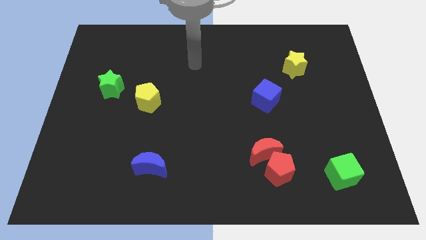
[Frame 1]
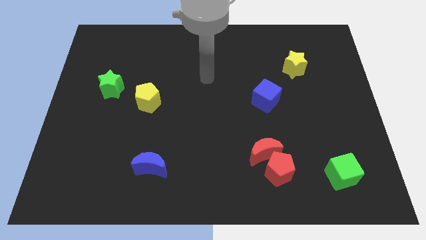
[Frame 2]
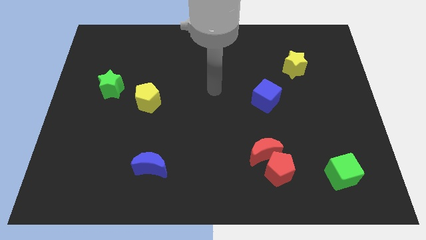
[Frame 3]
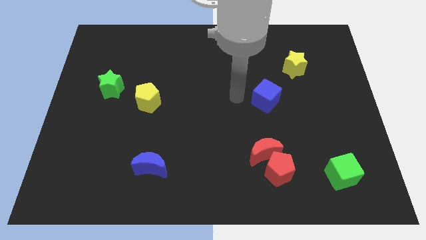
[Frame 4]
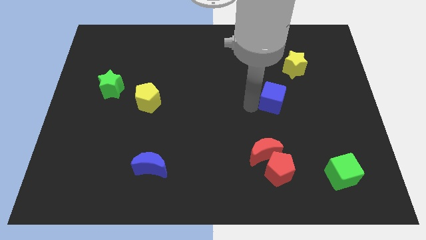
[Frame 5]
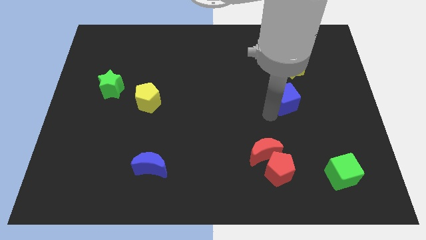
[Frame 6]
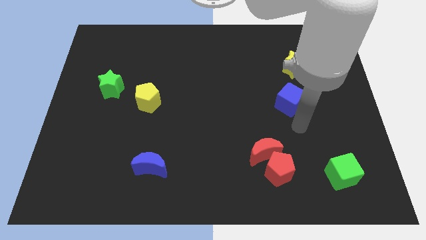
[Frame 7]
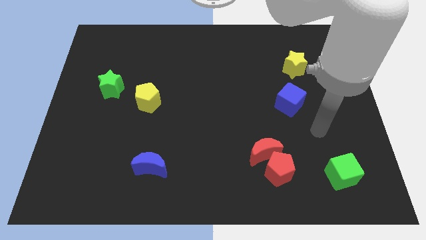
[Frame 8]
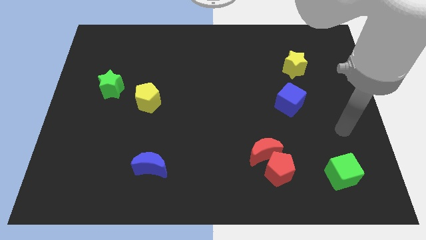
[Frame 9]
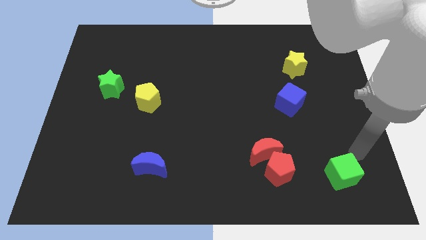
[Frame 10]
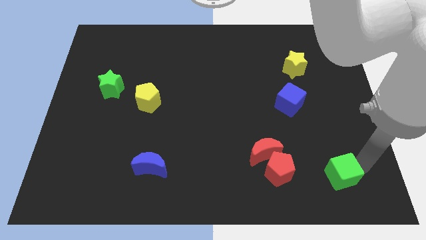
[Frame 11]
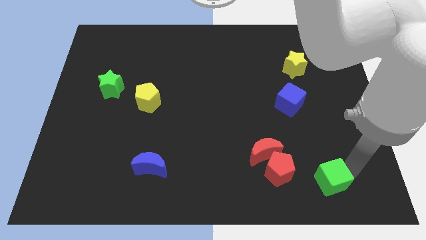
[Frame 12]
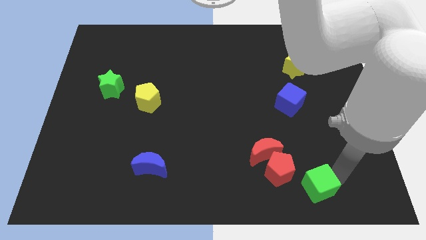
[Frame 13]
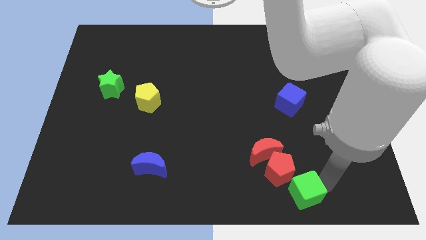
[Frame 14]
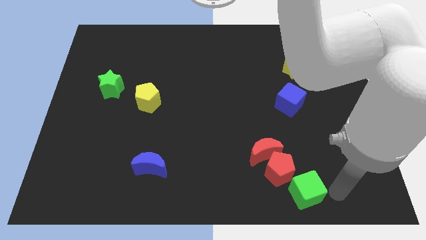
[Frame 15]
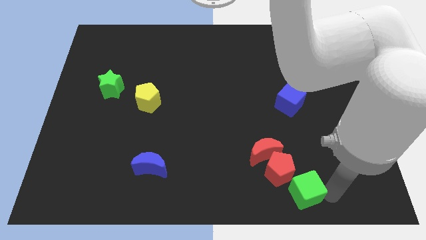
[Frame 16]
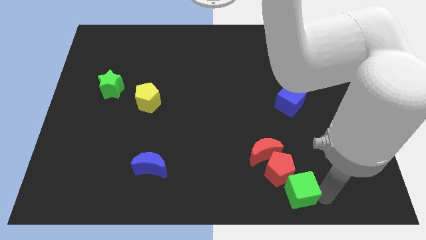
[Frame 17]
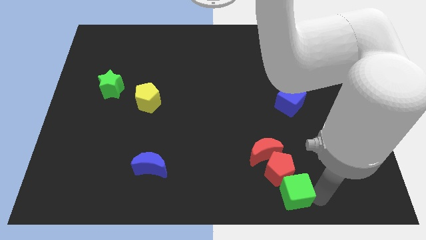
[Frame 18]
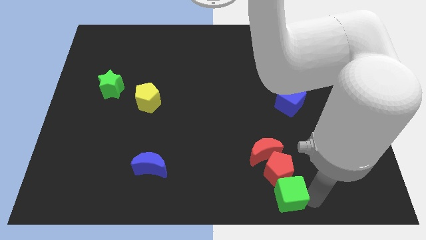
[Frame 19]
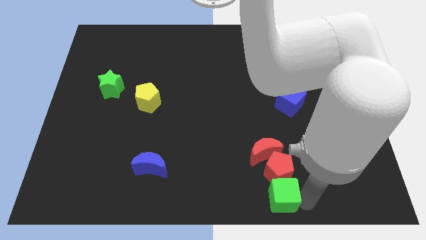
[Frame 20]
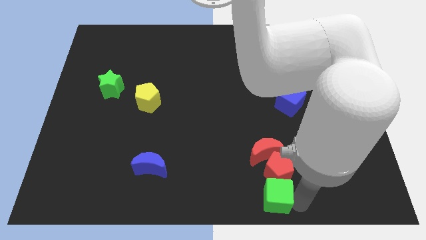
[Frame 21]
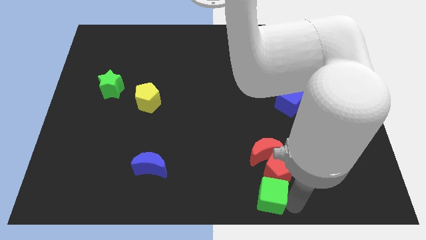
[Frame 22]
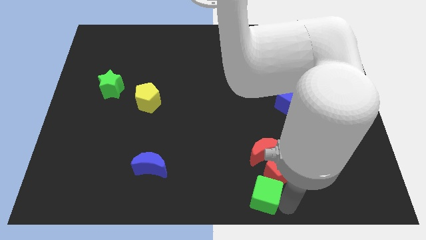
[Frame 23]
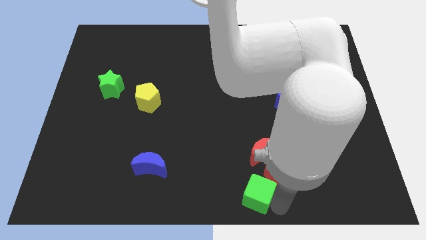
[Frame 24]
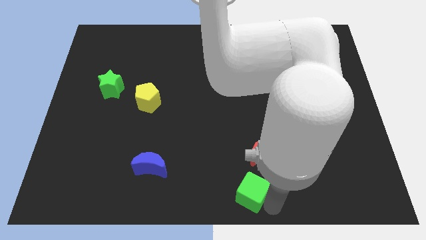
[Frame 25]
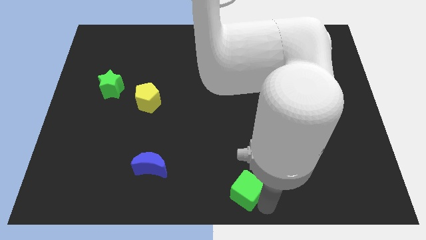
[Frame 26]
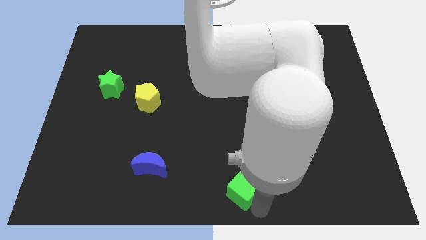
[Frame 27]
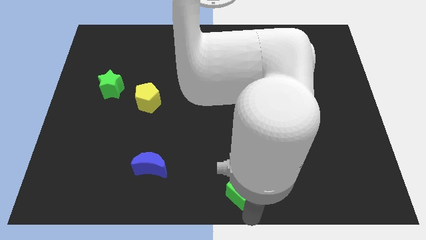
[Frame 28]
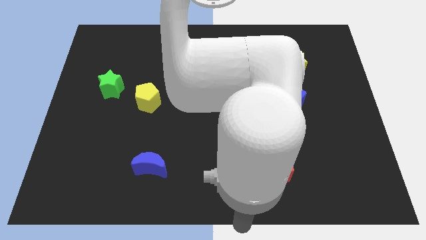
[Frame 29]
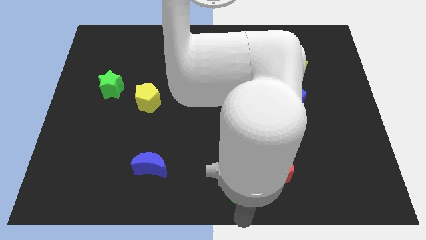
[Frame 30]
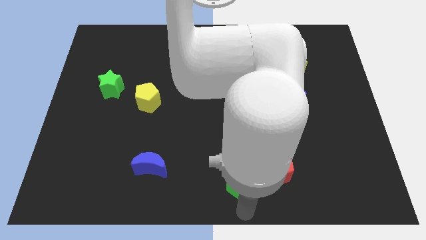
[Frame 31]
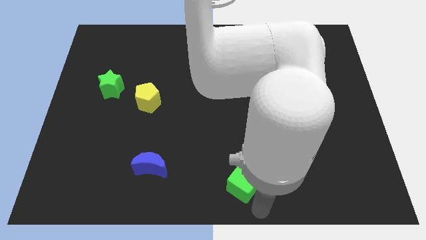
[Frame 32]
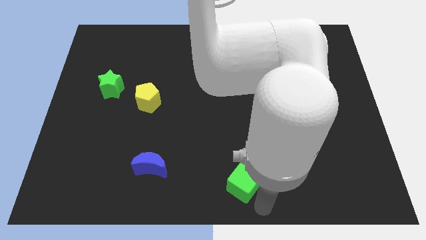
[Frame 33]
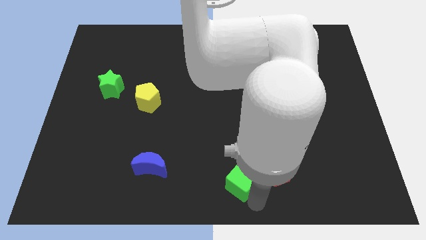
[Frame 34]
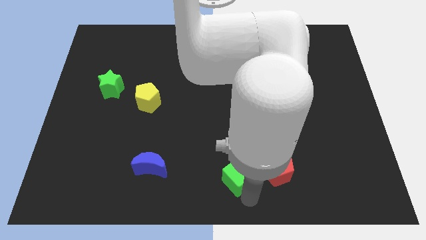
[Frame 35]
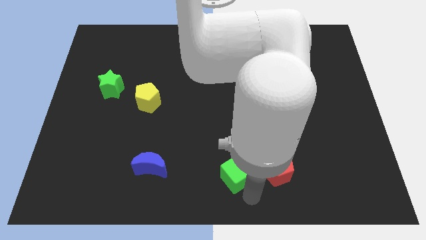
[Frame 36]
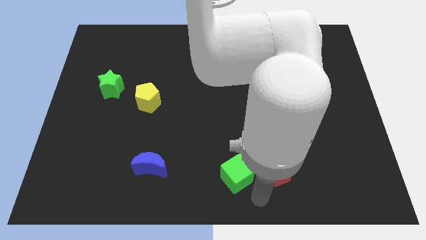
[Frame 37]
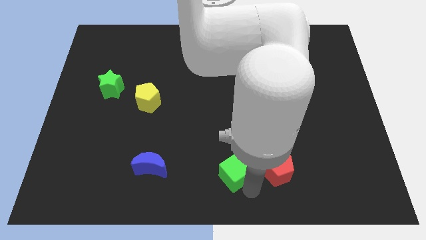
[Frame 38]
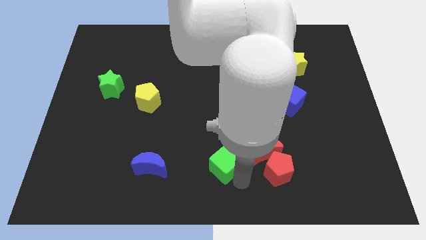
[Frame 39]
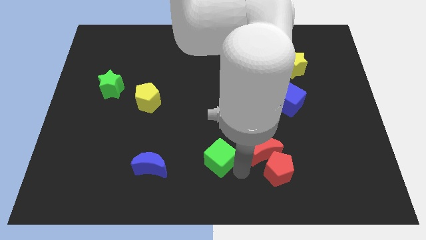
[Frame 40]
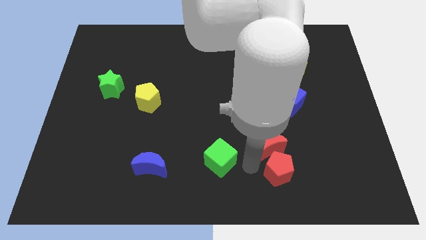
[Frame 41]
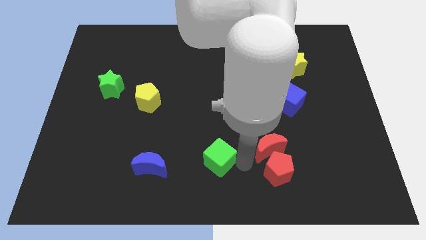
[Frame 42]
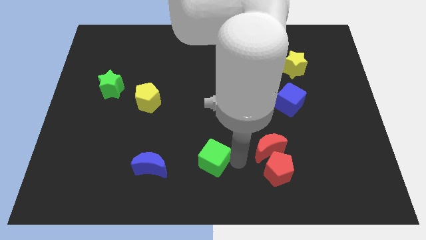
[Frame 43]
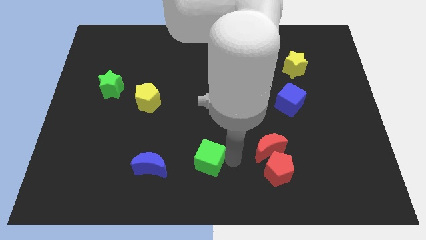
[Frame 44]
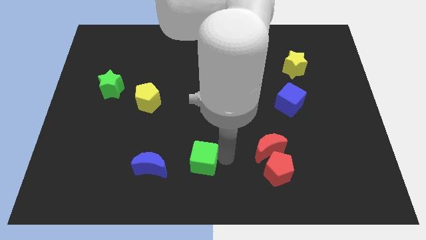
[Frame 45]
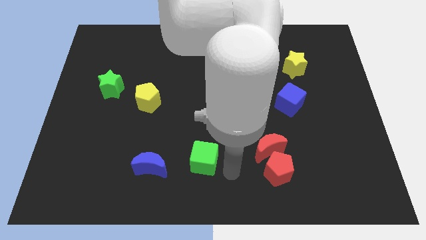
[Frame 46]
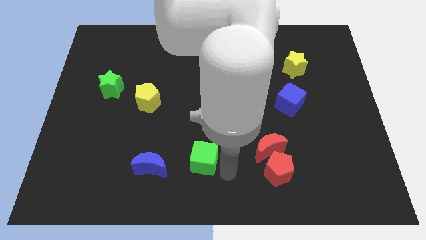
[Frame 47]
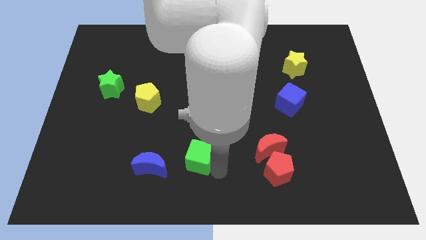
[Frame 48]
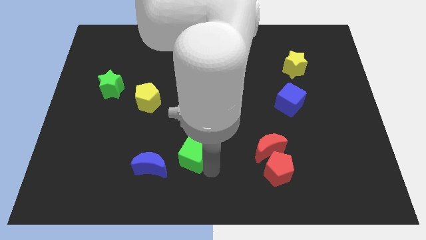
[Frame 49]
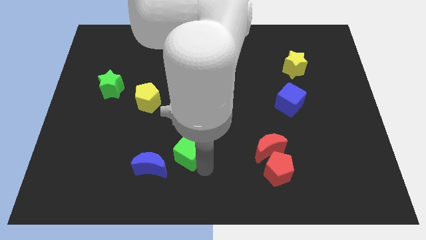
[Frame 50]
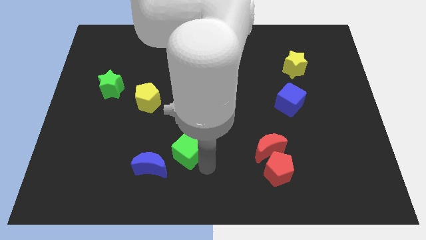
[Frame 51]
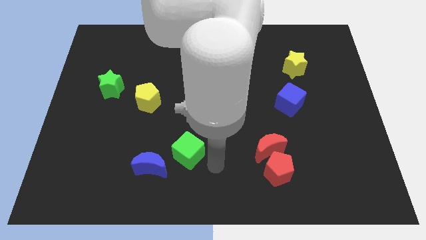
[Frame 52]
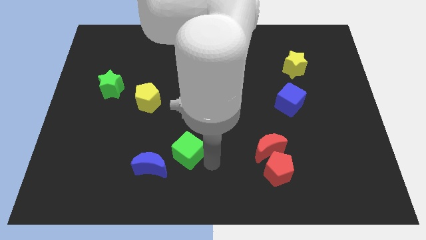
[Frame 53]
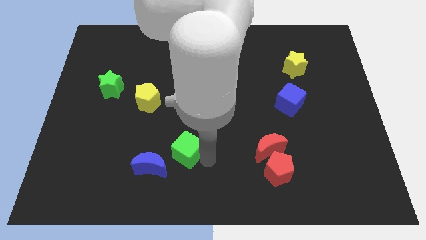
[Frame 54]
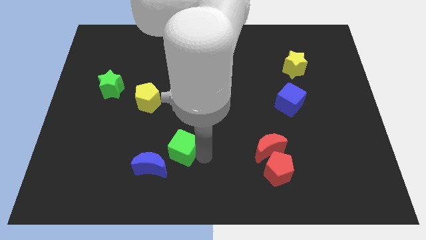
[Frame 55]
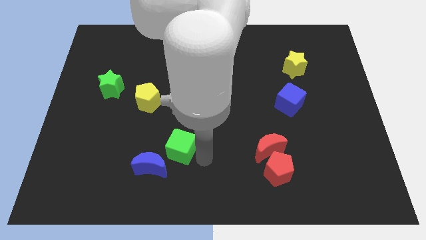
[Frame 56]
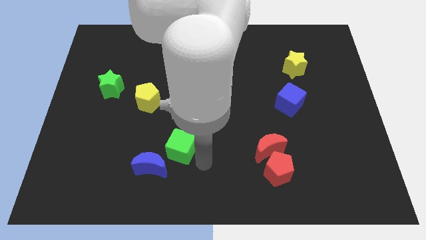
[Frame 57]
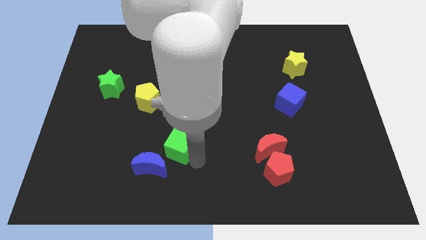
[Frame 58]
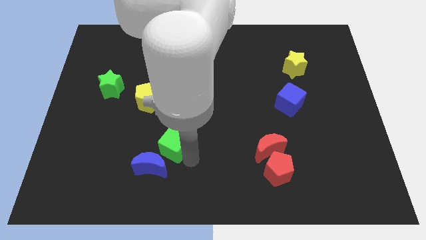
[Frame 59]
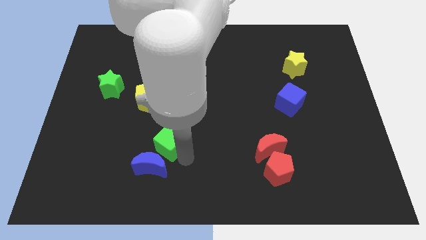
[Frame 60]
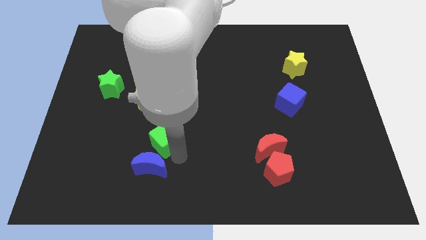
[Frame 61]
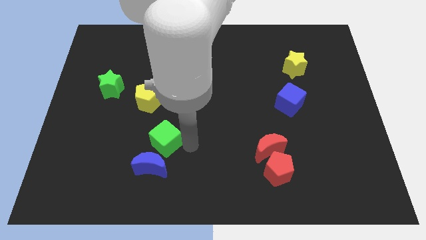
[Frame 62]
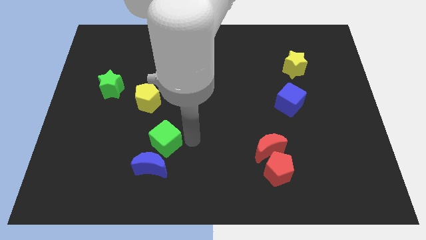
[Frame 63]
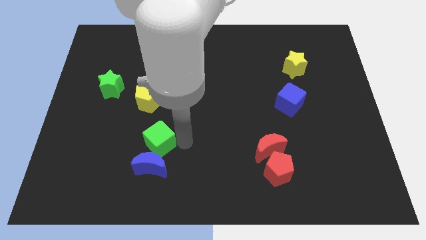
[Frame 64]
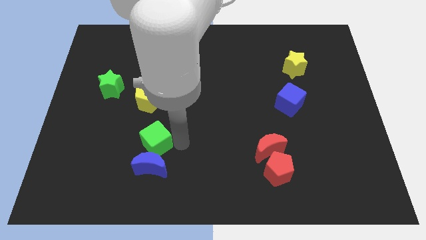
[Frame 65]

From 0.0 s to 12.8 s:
slide the green cube to the top left side of the blue moon
